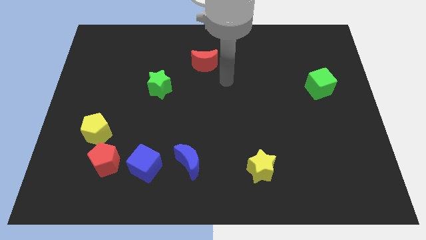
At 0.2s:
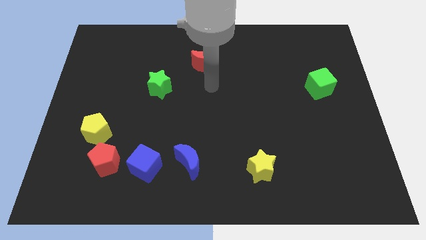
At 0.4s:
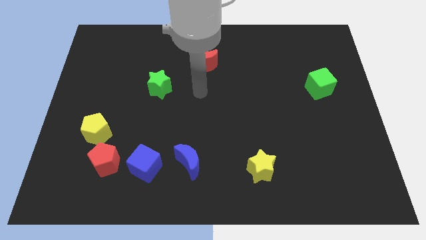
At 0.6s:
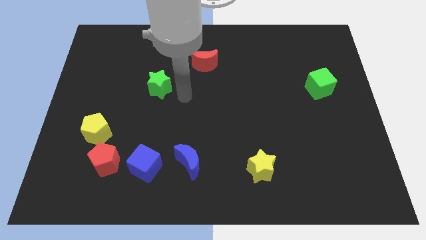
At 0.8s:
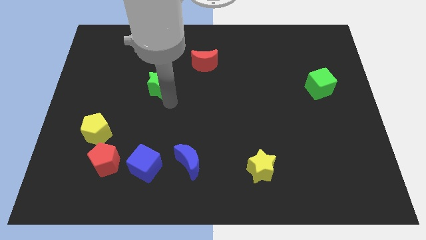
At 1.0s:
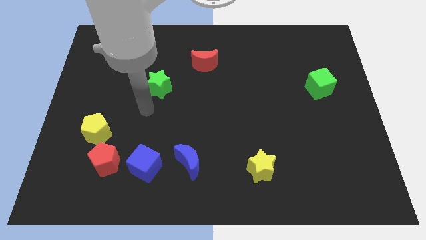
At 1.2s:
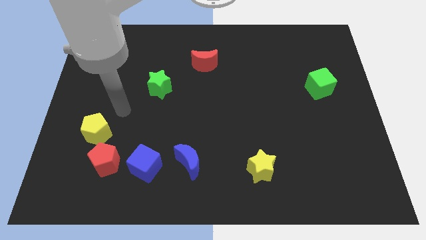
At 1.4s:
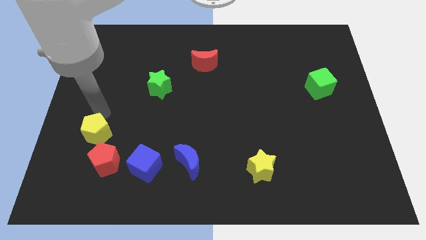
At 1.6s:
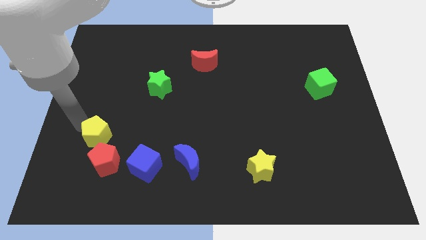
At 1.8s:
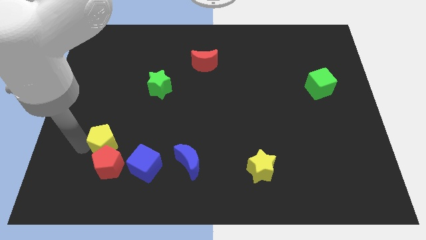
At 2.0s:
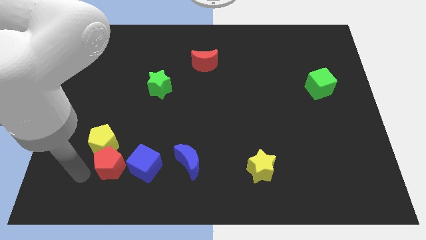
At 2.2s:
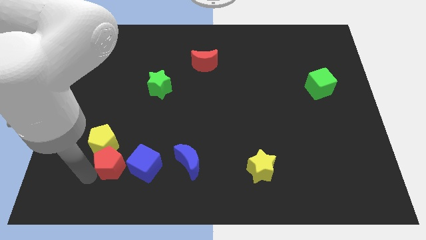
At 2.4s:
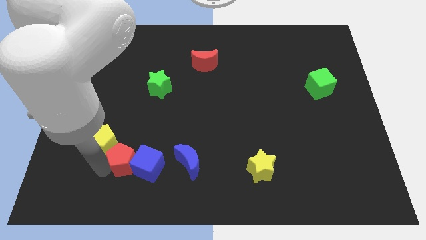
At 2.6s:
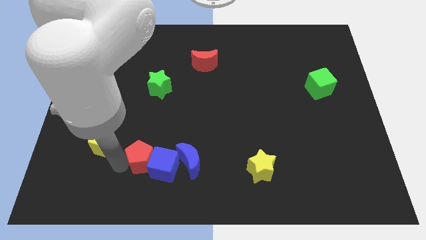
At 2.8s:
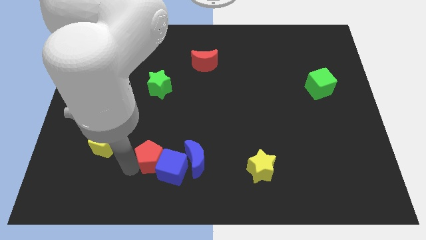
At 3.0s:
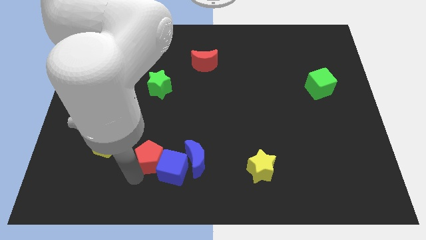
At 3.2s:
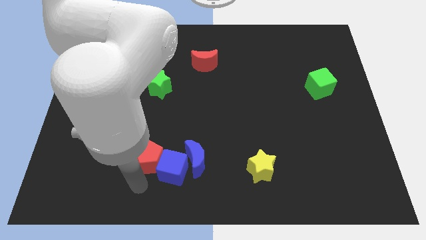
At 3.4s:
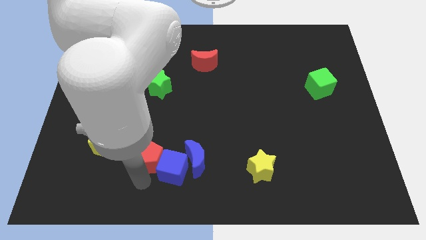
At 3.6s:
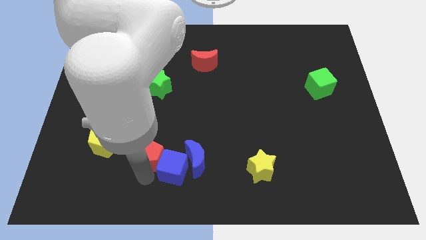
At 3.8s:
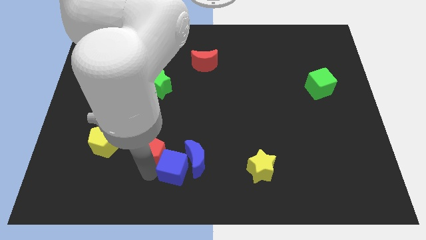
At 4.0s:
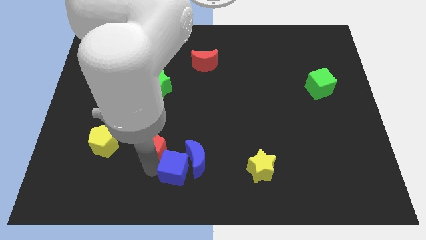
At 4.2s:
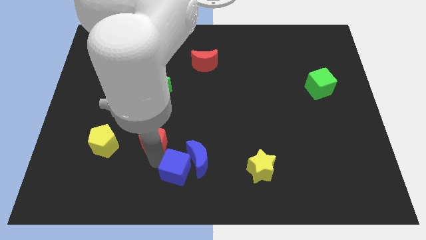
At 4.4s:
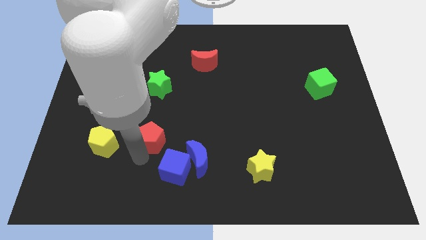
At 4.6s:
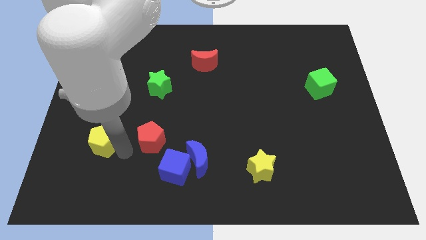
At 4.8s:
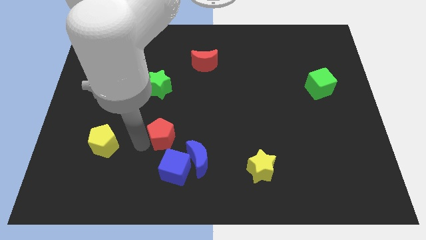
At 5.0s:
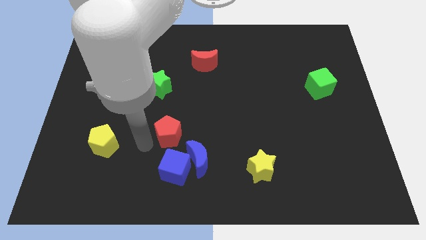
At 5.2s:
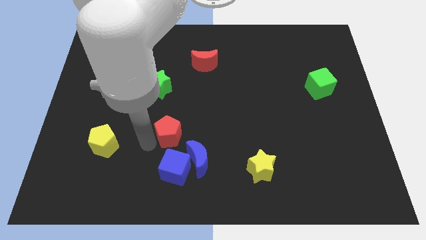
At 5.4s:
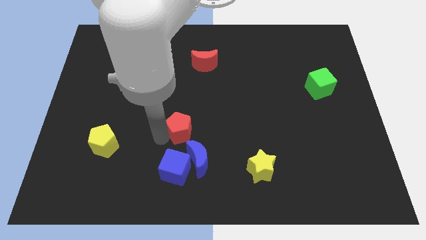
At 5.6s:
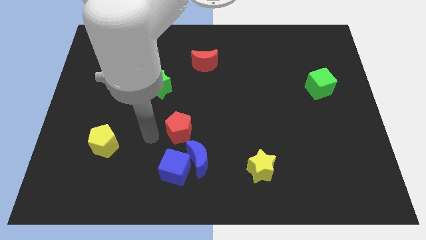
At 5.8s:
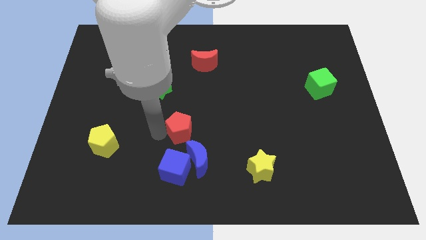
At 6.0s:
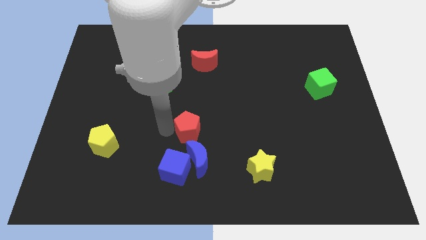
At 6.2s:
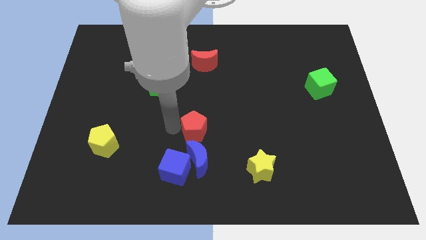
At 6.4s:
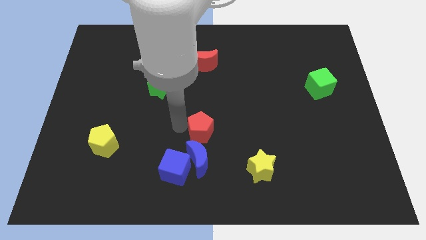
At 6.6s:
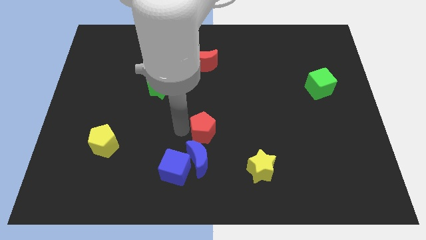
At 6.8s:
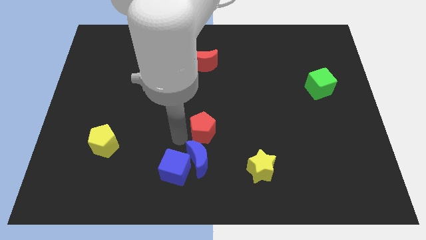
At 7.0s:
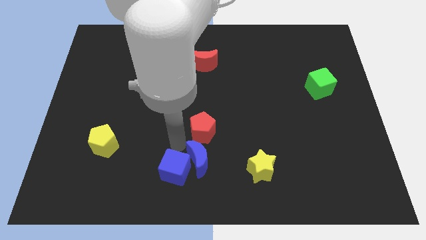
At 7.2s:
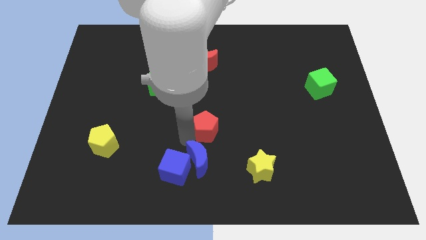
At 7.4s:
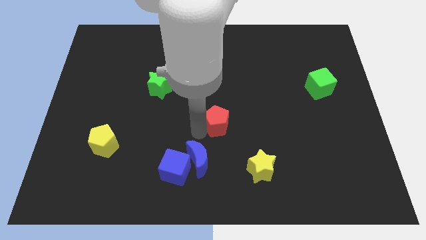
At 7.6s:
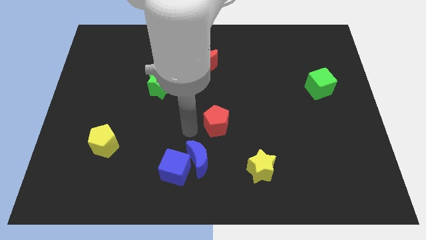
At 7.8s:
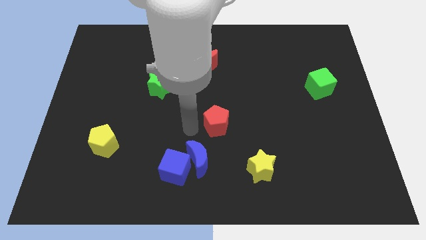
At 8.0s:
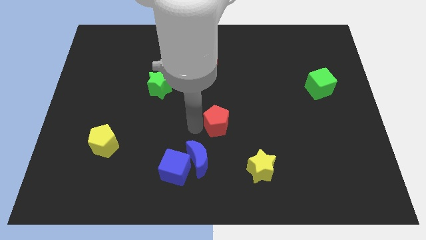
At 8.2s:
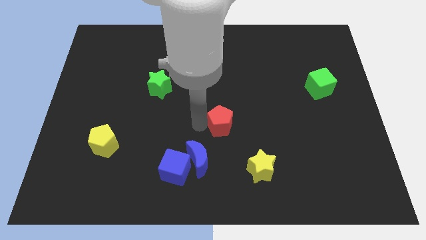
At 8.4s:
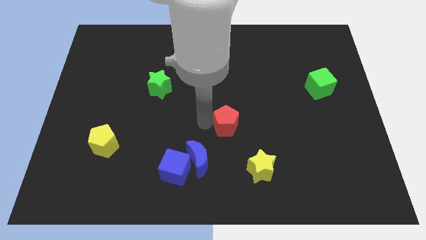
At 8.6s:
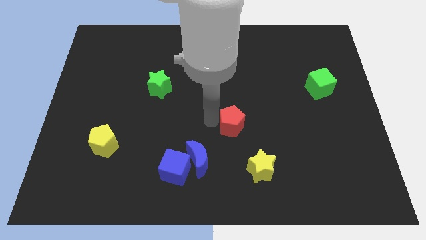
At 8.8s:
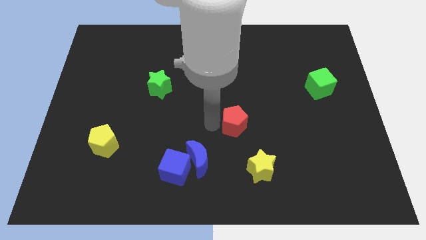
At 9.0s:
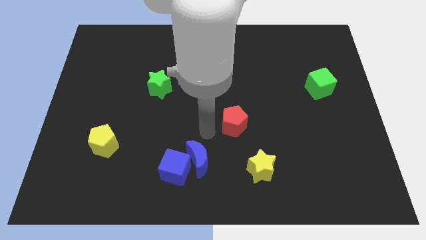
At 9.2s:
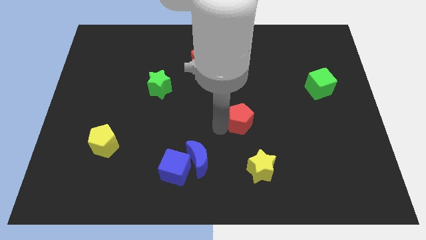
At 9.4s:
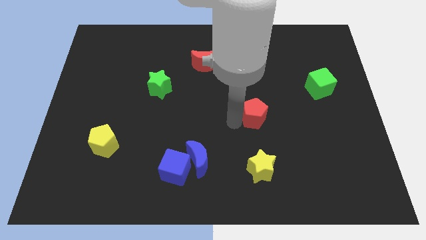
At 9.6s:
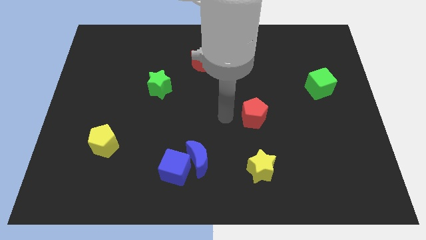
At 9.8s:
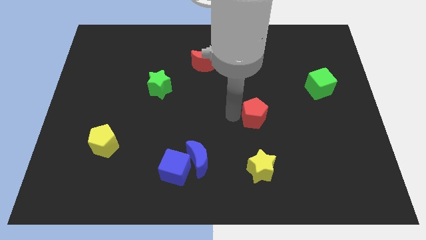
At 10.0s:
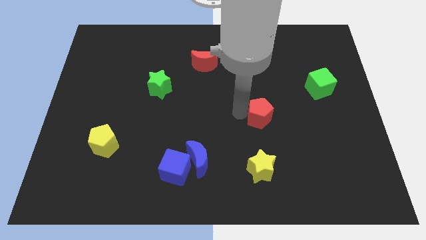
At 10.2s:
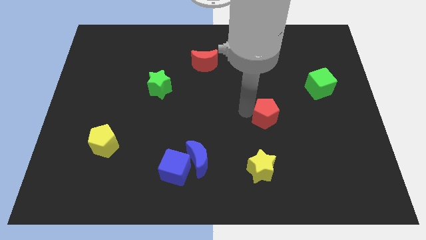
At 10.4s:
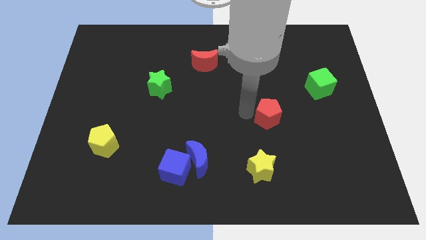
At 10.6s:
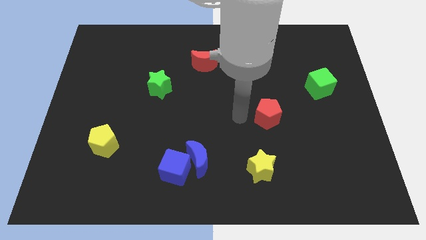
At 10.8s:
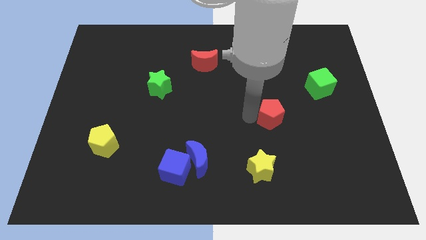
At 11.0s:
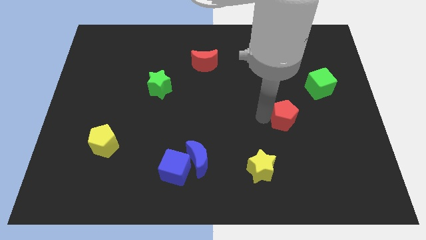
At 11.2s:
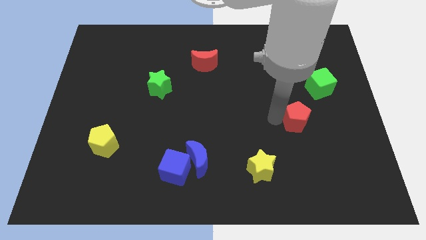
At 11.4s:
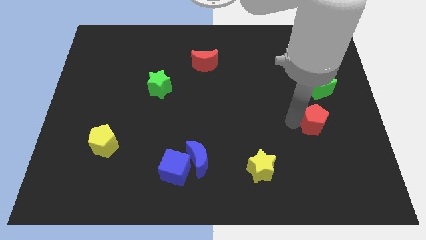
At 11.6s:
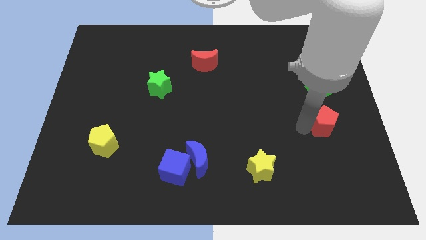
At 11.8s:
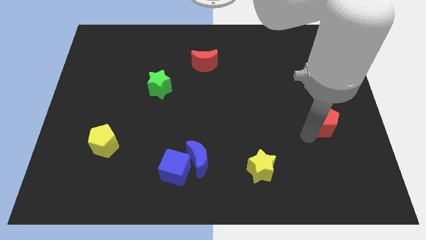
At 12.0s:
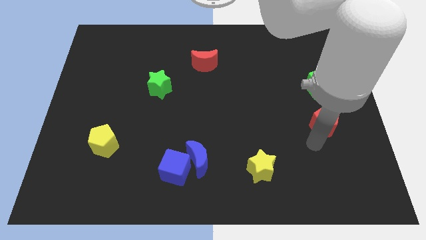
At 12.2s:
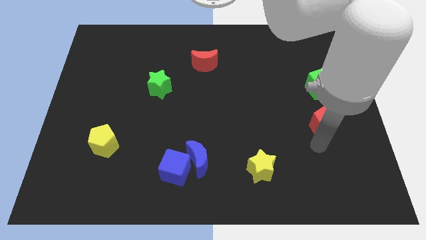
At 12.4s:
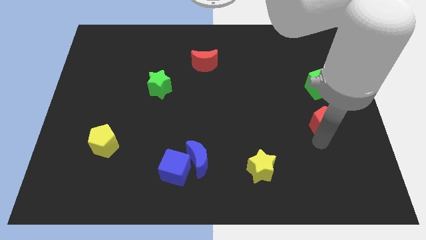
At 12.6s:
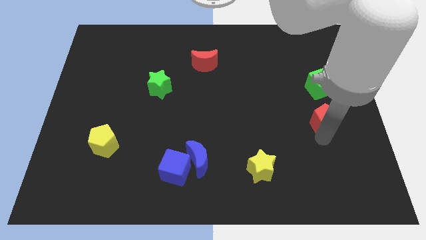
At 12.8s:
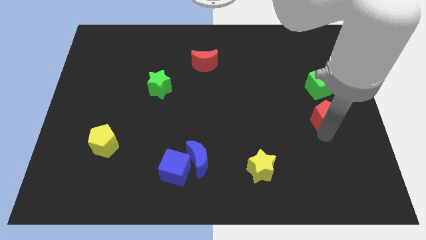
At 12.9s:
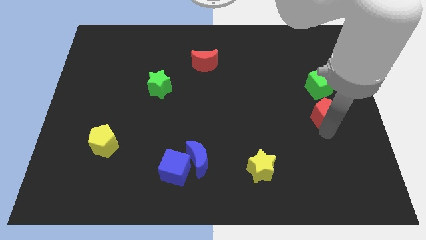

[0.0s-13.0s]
push the red pentagon to the center right

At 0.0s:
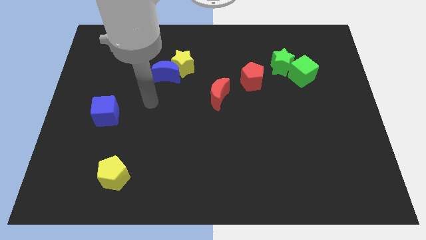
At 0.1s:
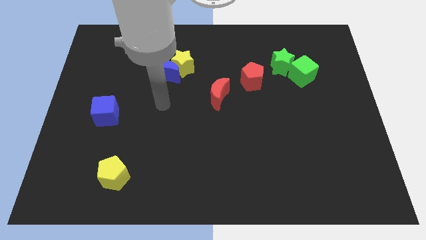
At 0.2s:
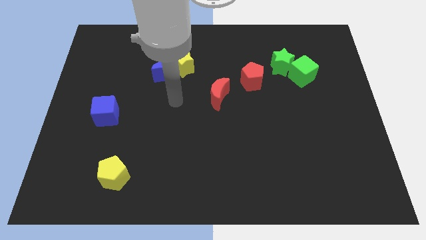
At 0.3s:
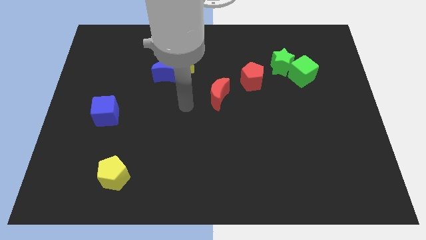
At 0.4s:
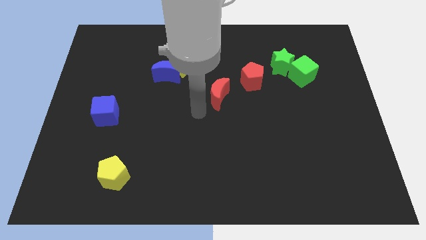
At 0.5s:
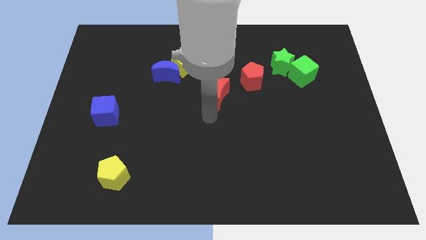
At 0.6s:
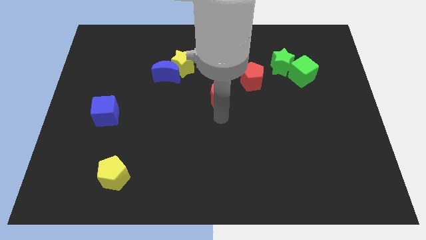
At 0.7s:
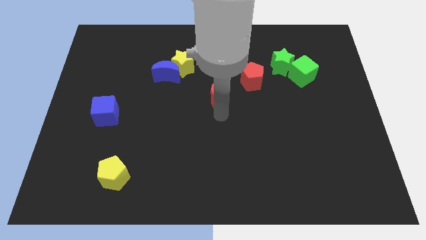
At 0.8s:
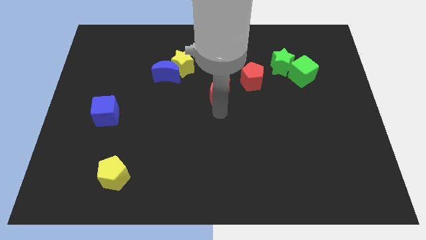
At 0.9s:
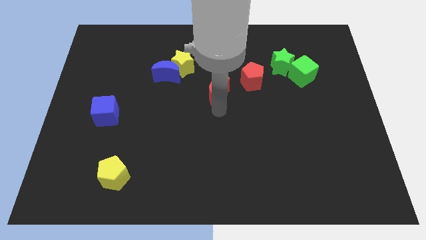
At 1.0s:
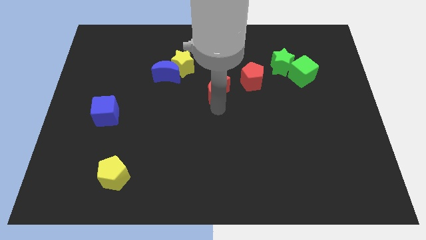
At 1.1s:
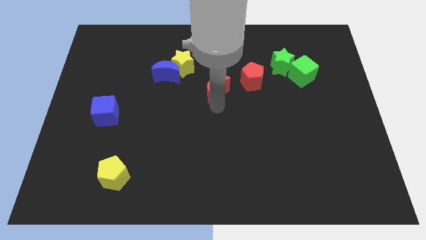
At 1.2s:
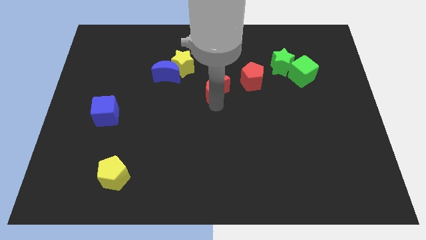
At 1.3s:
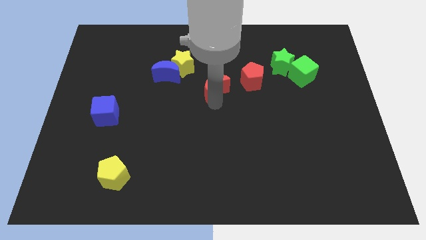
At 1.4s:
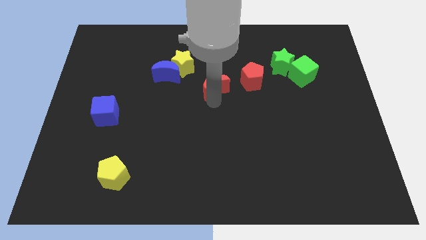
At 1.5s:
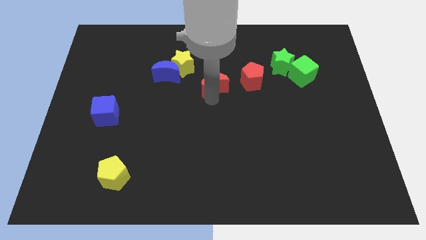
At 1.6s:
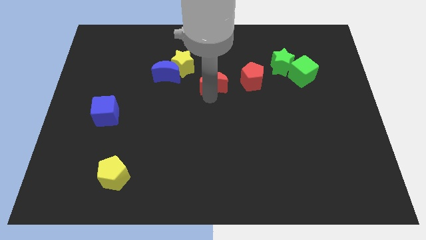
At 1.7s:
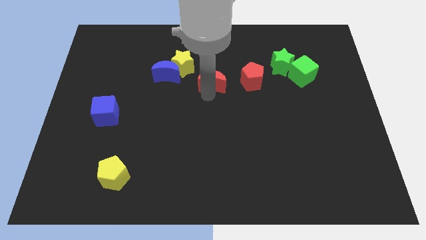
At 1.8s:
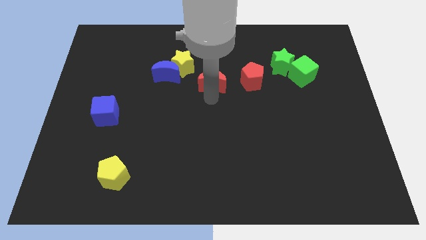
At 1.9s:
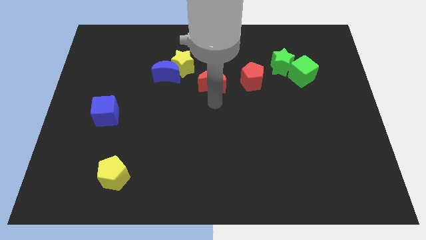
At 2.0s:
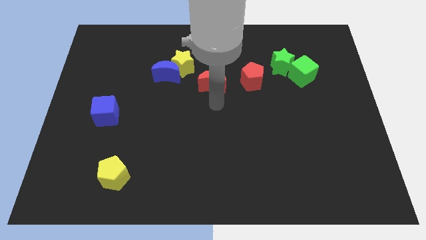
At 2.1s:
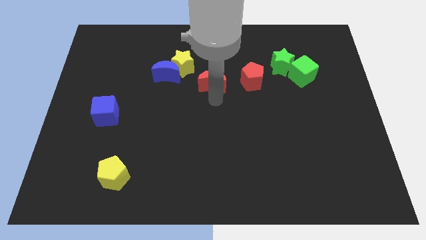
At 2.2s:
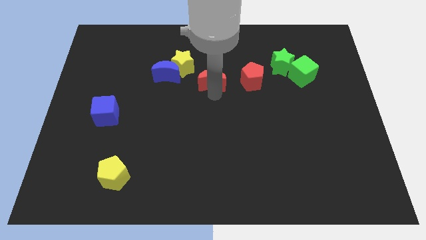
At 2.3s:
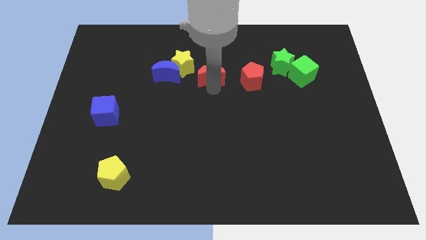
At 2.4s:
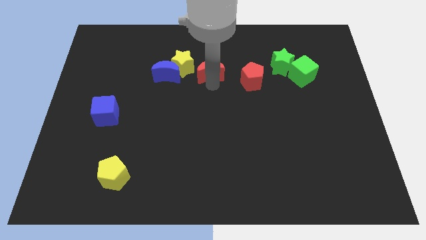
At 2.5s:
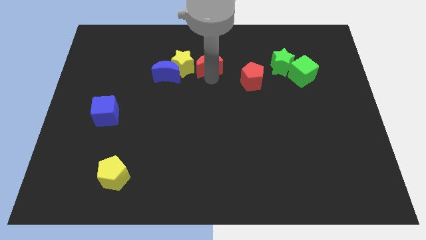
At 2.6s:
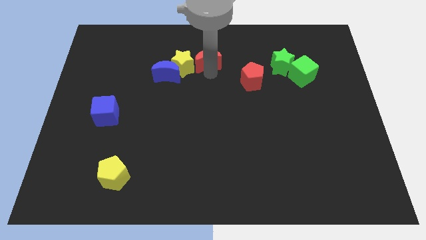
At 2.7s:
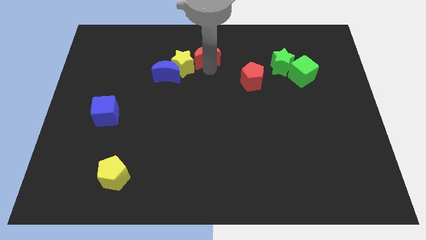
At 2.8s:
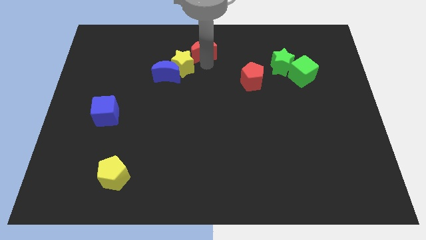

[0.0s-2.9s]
push the red moon to the towards your base
